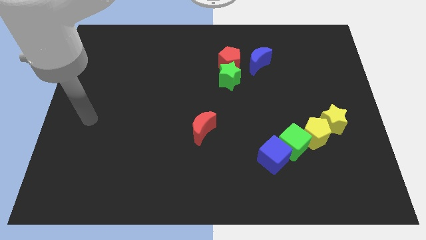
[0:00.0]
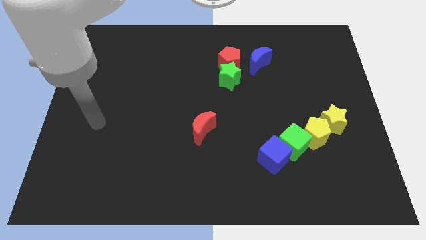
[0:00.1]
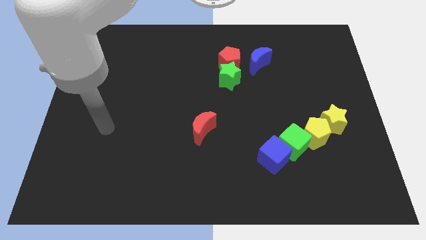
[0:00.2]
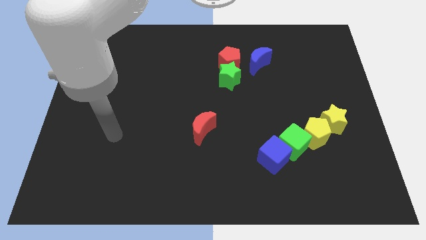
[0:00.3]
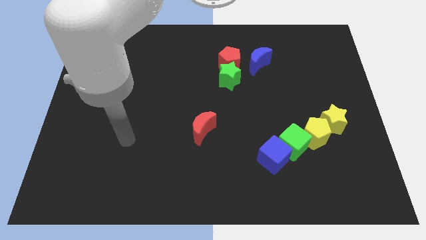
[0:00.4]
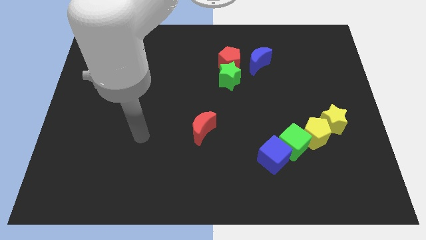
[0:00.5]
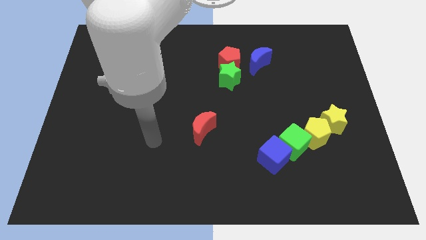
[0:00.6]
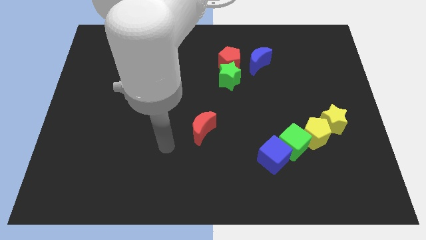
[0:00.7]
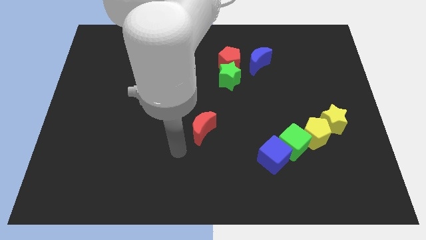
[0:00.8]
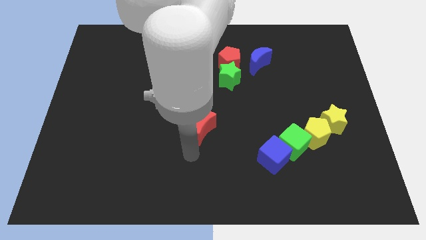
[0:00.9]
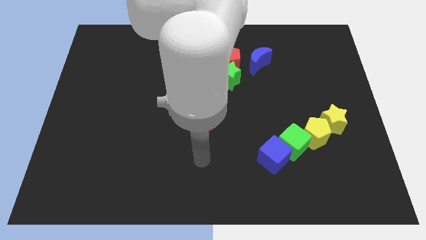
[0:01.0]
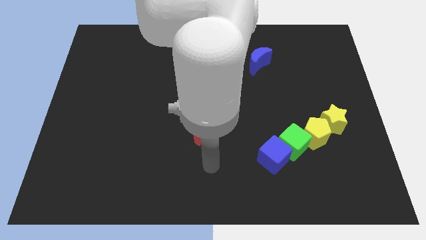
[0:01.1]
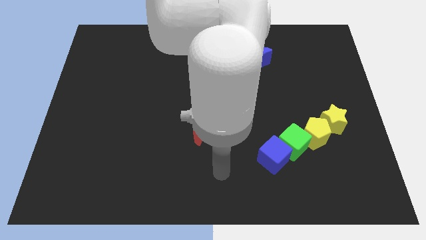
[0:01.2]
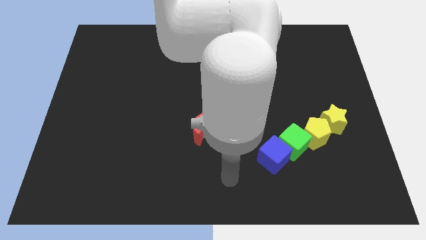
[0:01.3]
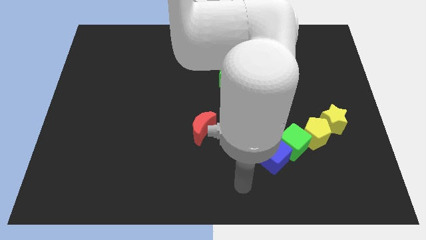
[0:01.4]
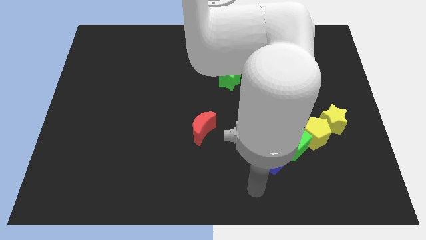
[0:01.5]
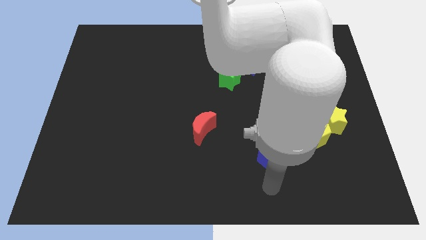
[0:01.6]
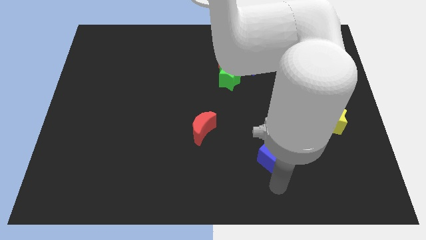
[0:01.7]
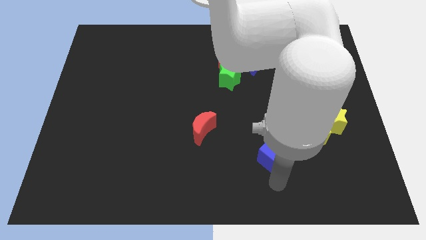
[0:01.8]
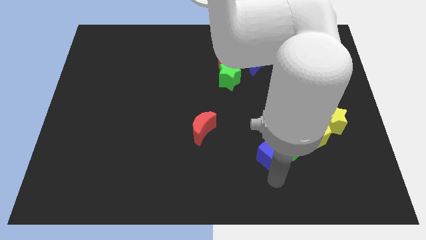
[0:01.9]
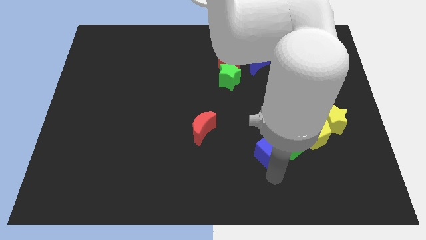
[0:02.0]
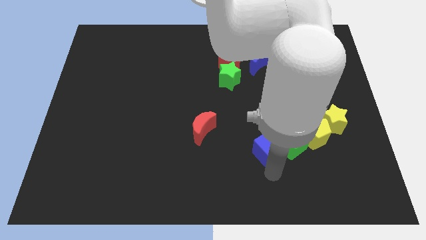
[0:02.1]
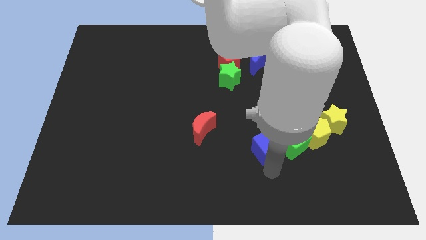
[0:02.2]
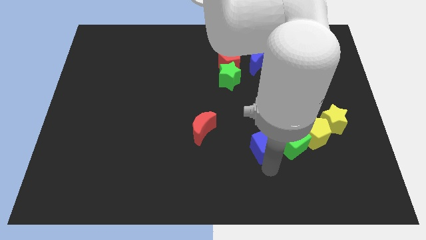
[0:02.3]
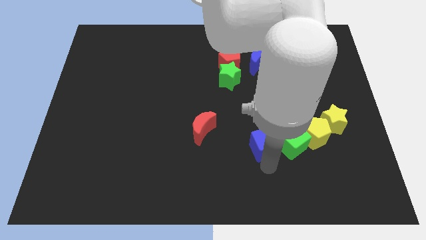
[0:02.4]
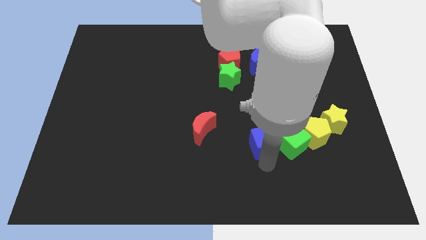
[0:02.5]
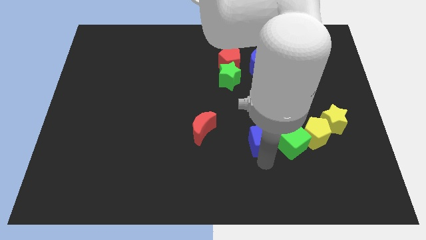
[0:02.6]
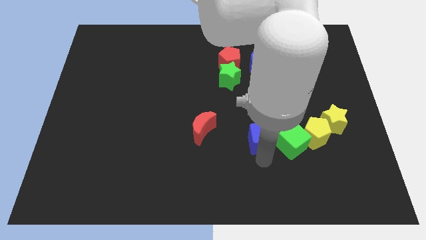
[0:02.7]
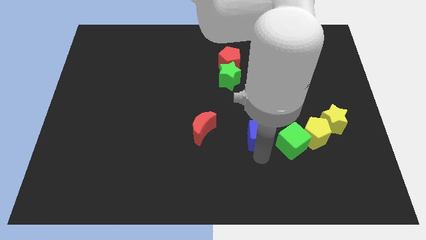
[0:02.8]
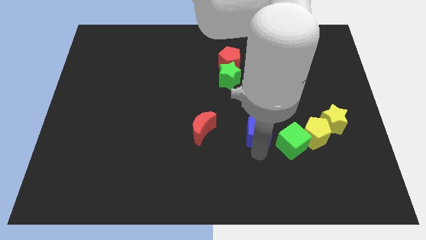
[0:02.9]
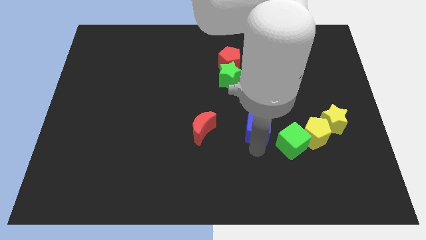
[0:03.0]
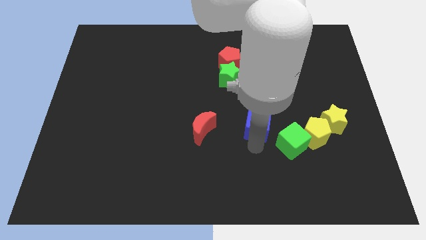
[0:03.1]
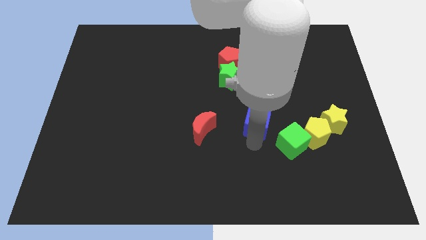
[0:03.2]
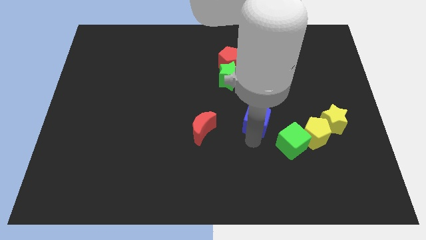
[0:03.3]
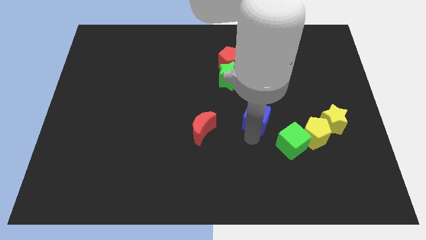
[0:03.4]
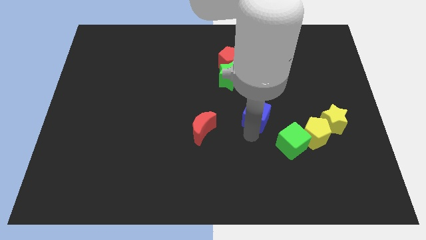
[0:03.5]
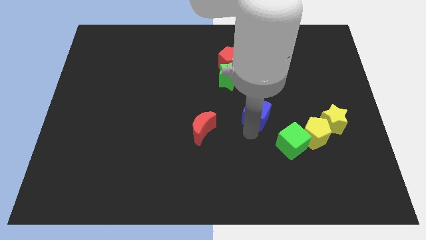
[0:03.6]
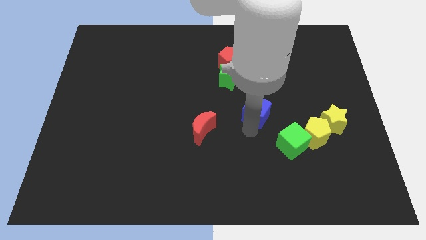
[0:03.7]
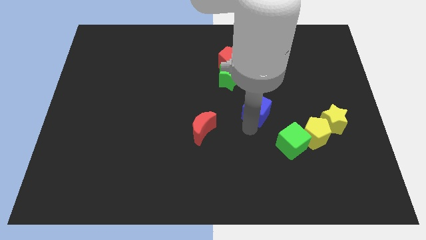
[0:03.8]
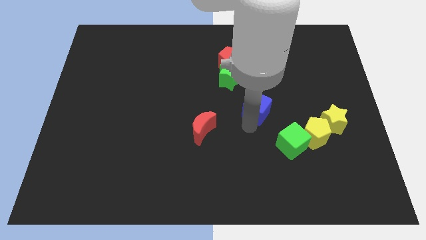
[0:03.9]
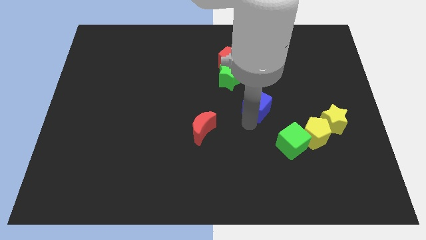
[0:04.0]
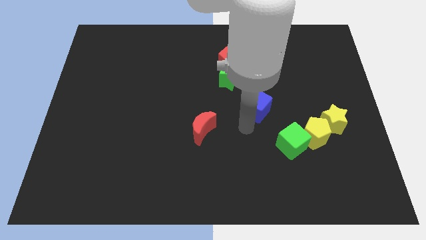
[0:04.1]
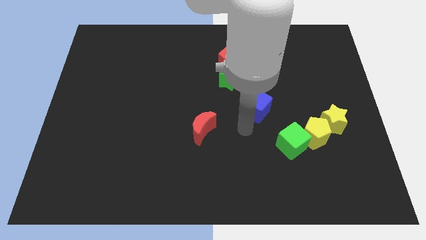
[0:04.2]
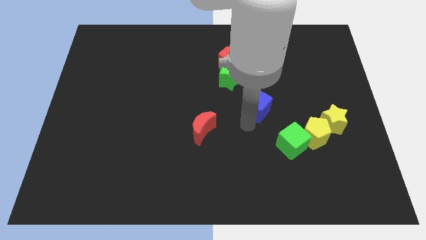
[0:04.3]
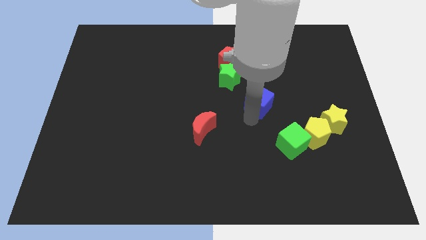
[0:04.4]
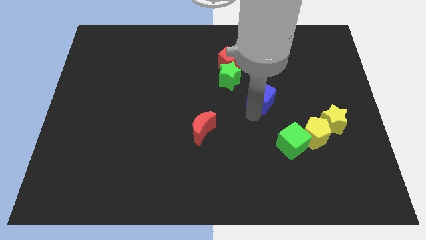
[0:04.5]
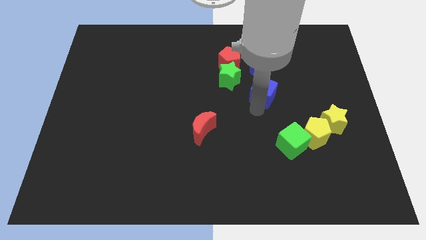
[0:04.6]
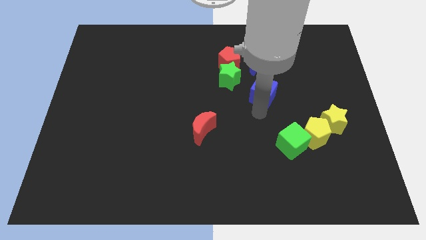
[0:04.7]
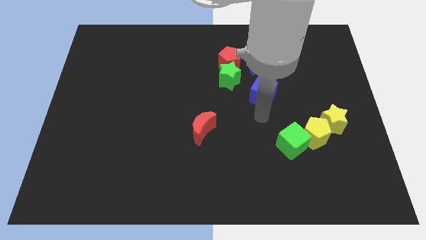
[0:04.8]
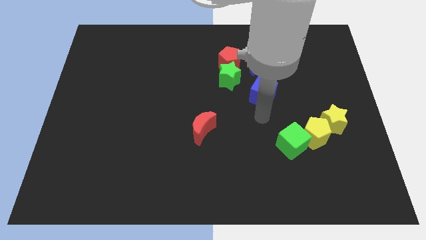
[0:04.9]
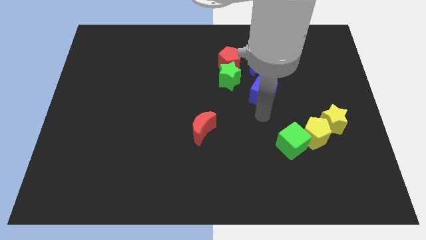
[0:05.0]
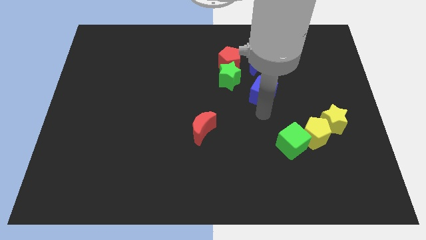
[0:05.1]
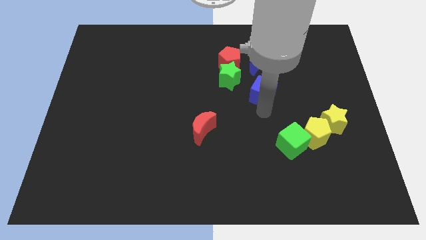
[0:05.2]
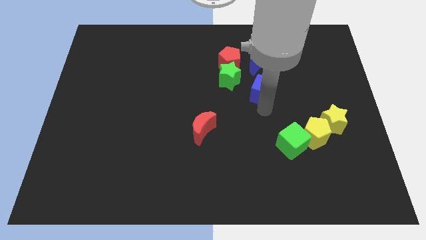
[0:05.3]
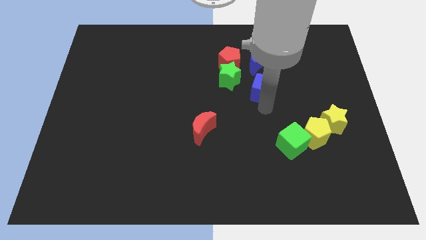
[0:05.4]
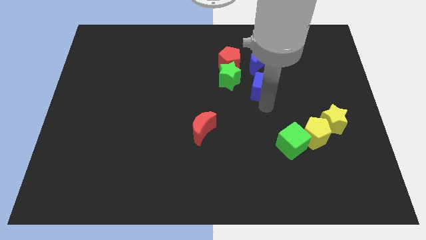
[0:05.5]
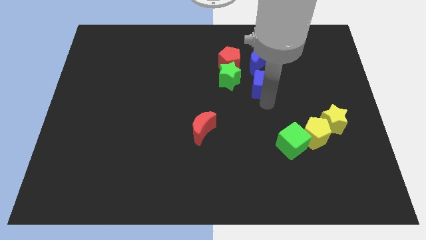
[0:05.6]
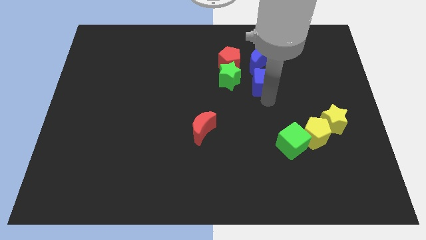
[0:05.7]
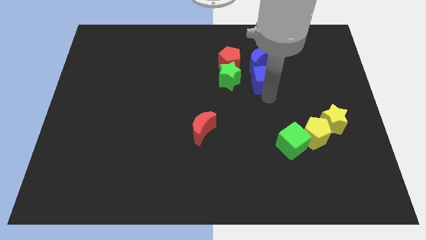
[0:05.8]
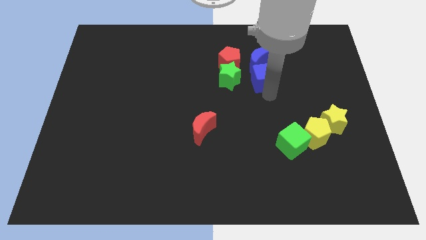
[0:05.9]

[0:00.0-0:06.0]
move the blue cube to the blue moon
